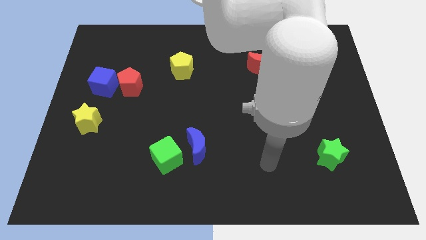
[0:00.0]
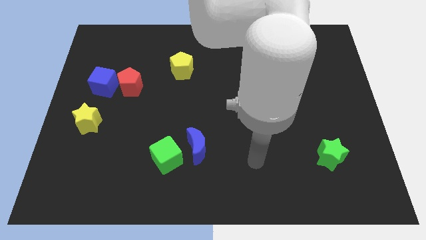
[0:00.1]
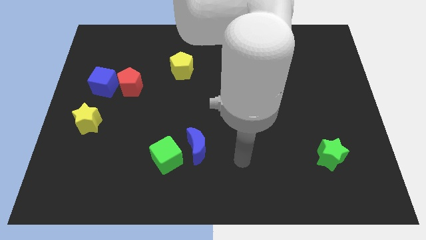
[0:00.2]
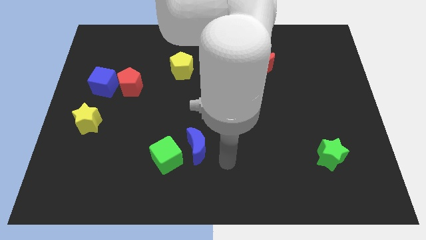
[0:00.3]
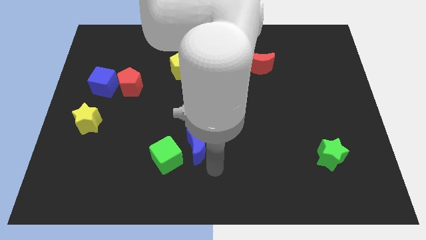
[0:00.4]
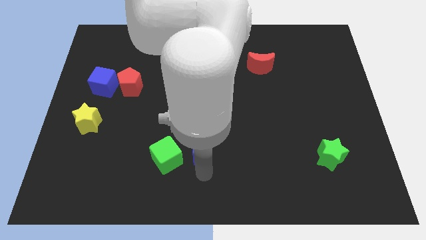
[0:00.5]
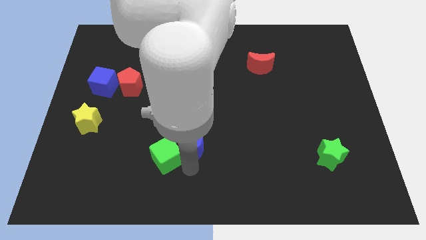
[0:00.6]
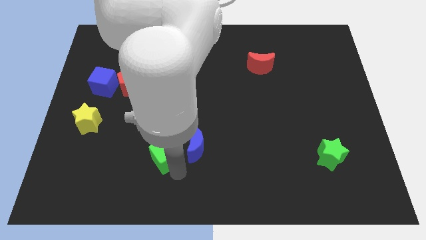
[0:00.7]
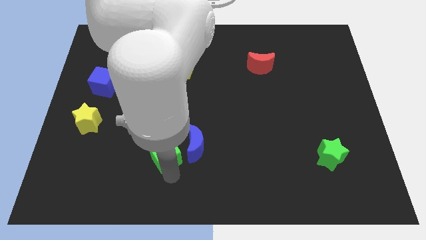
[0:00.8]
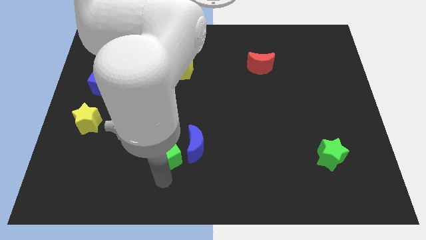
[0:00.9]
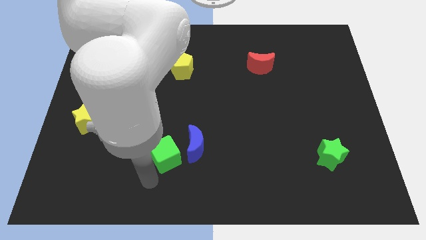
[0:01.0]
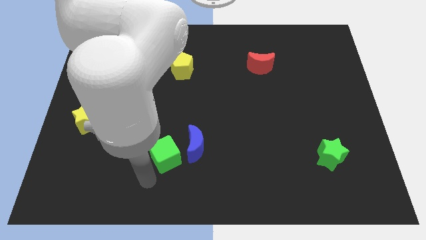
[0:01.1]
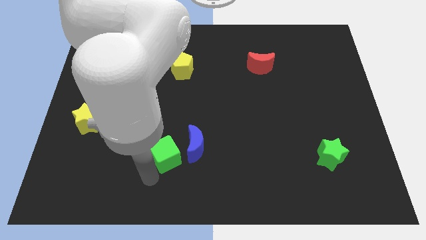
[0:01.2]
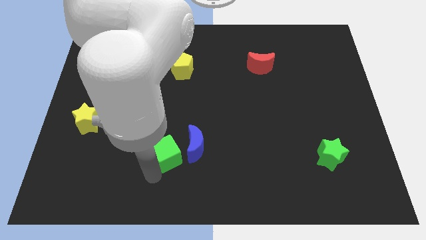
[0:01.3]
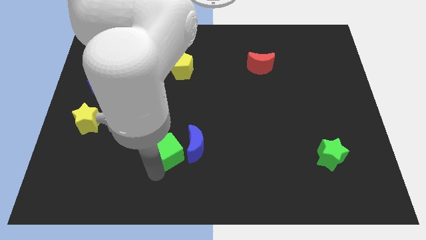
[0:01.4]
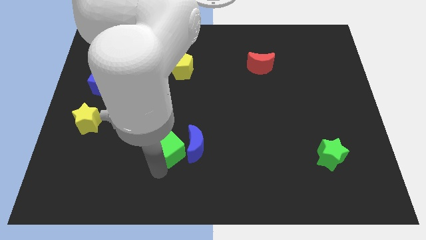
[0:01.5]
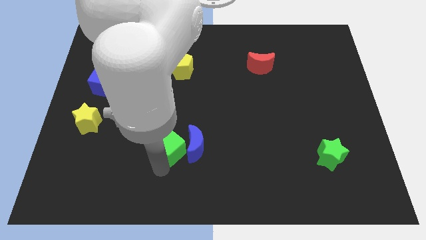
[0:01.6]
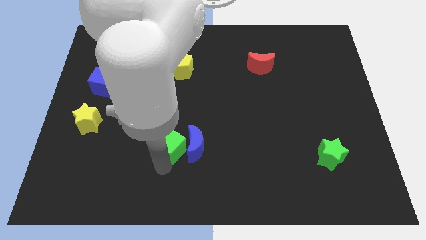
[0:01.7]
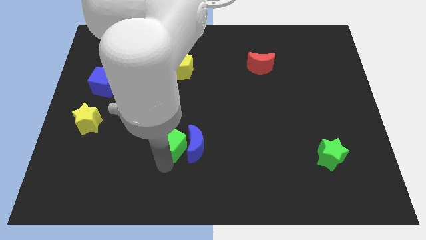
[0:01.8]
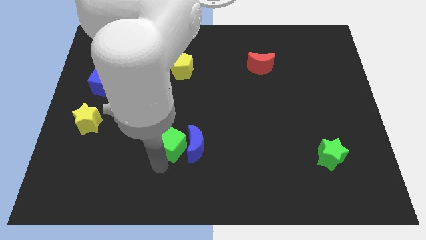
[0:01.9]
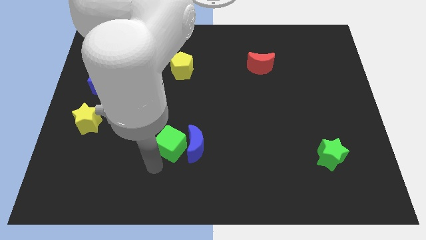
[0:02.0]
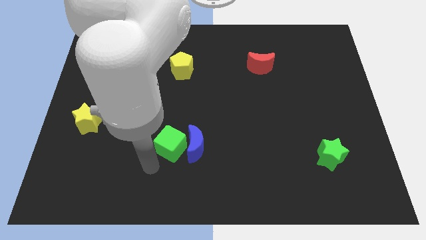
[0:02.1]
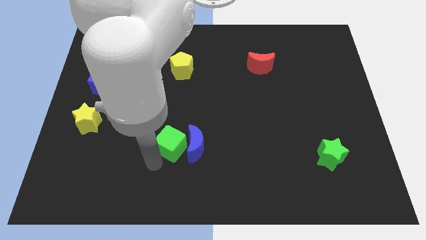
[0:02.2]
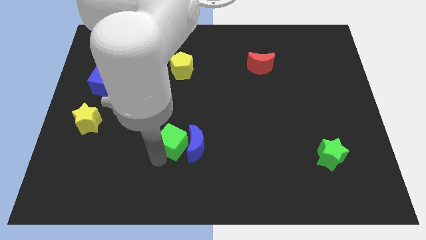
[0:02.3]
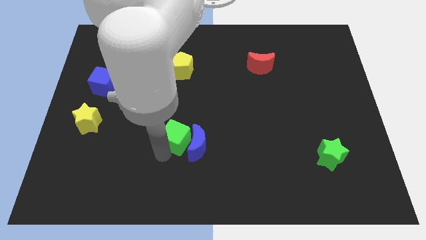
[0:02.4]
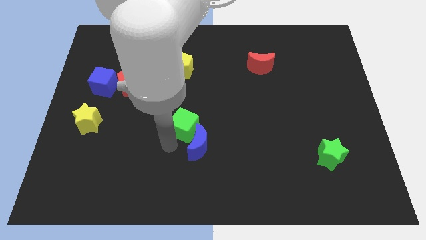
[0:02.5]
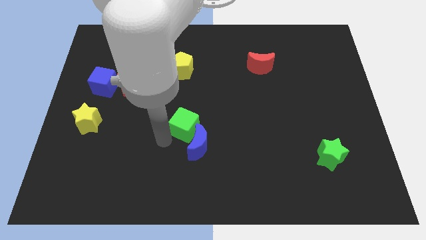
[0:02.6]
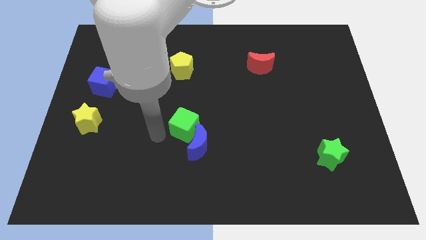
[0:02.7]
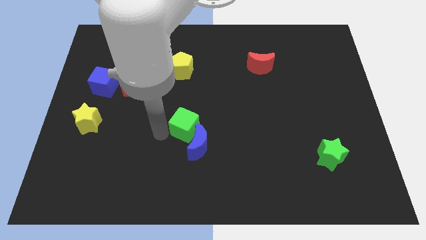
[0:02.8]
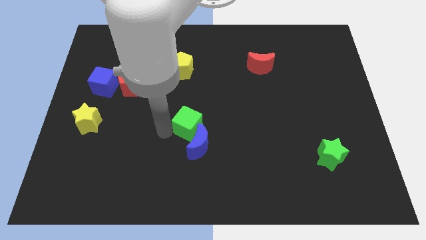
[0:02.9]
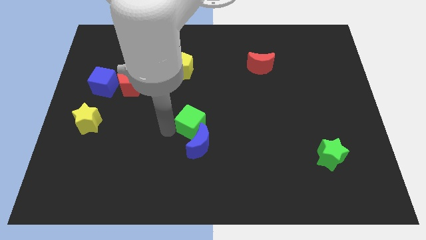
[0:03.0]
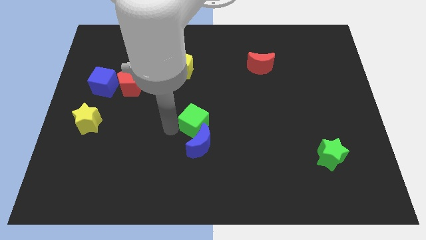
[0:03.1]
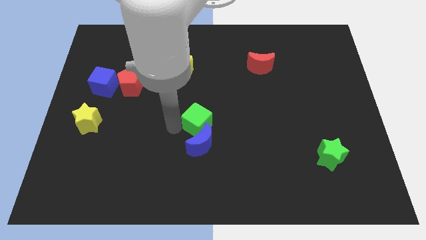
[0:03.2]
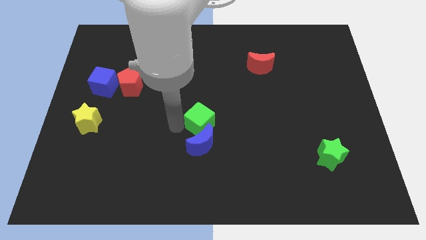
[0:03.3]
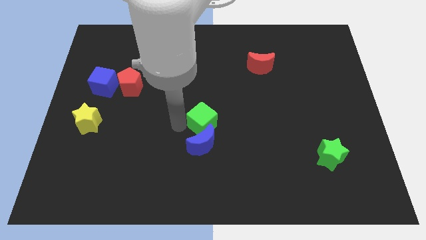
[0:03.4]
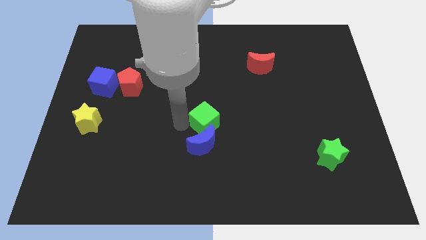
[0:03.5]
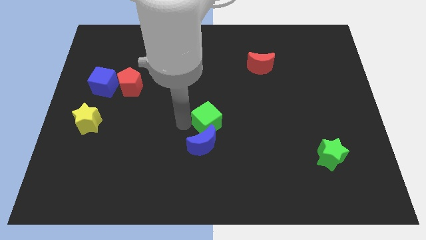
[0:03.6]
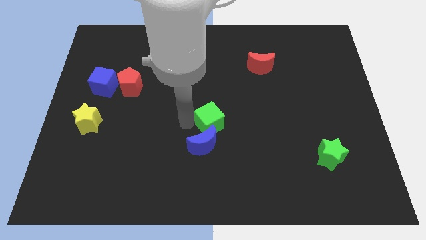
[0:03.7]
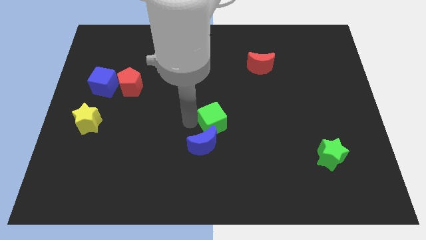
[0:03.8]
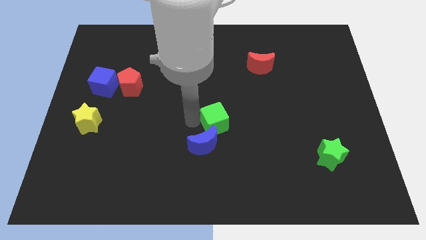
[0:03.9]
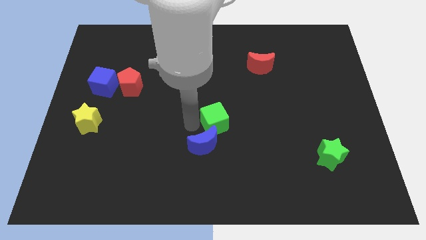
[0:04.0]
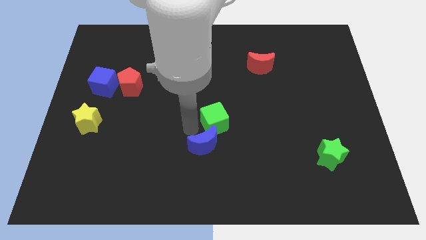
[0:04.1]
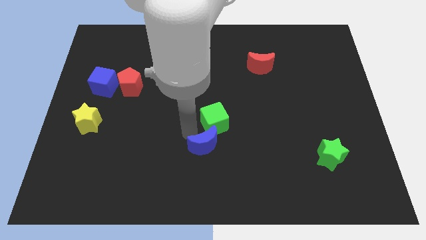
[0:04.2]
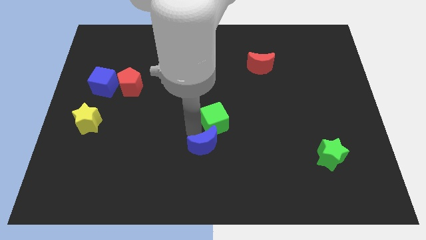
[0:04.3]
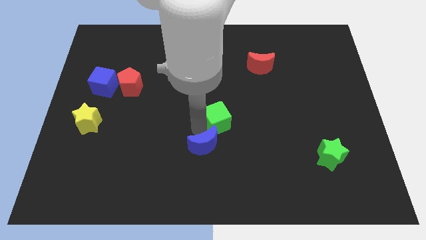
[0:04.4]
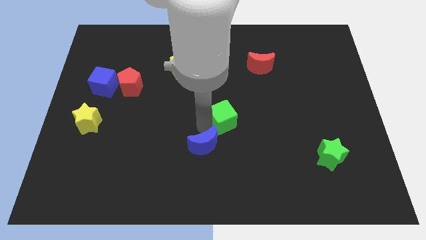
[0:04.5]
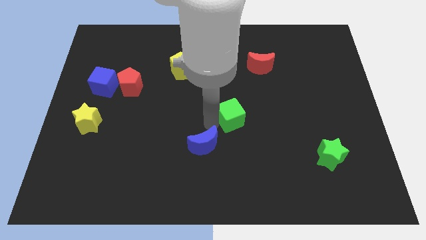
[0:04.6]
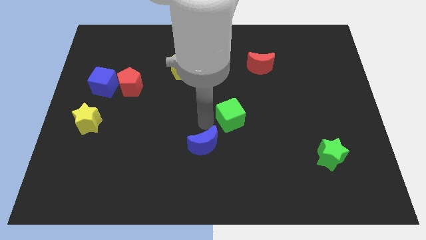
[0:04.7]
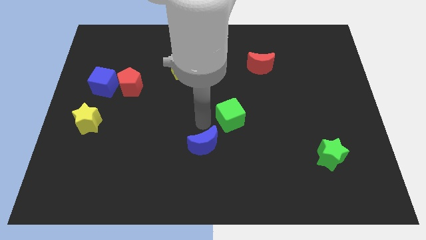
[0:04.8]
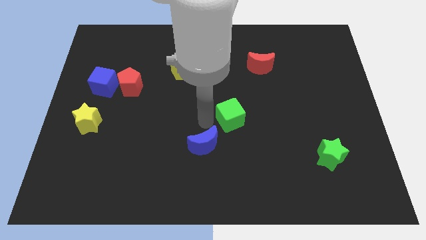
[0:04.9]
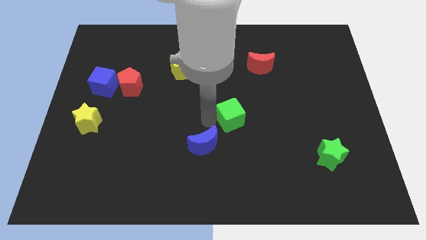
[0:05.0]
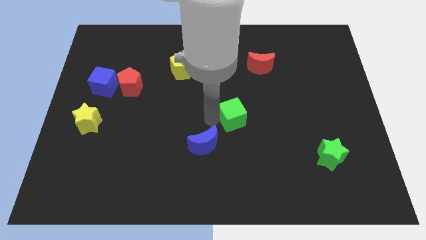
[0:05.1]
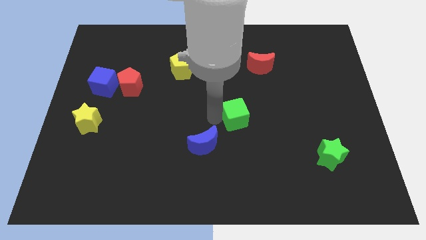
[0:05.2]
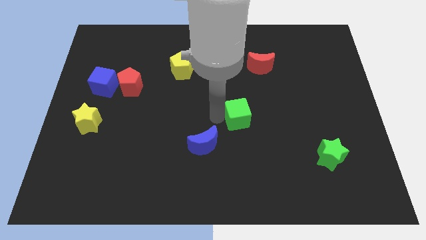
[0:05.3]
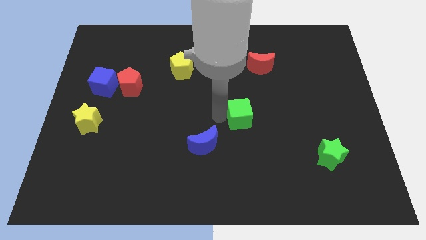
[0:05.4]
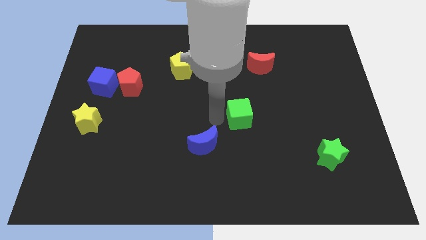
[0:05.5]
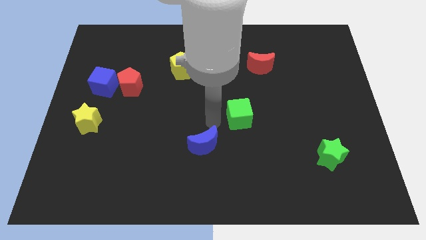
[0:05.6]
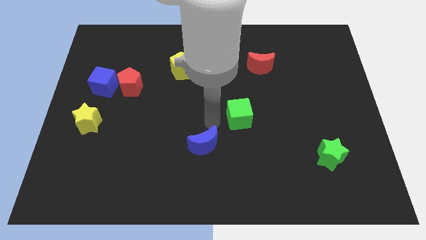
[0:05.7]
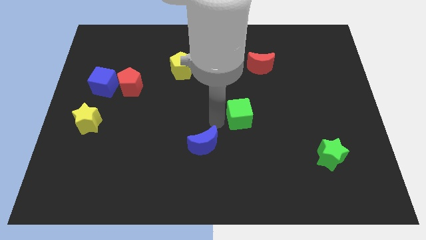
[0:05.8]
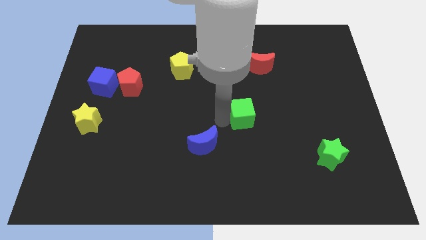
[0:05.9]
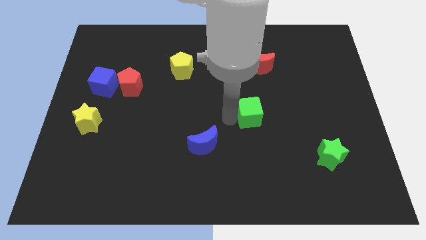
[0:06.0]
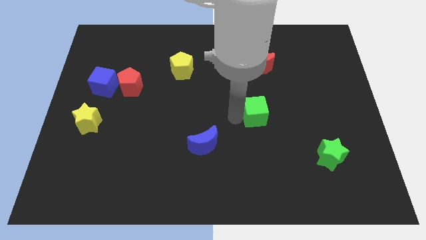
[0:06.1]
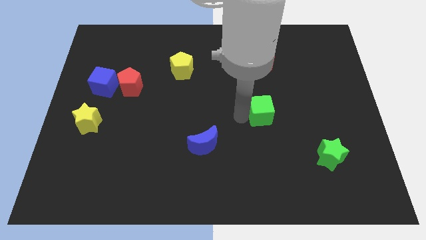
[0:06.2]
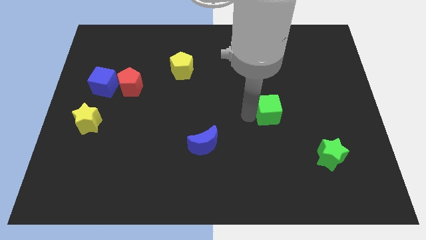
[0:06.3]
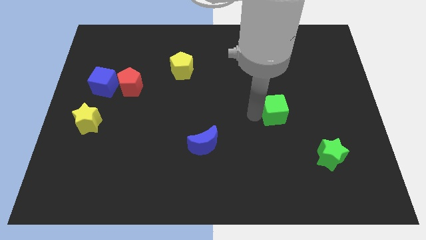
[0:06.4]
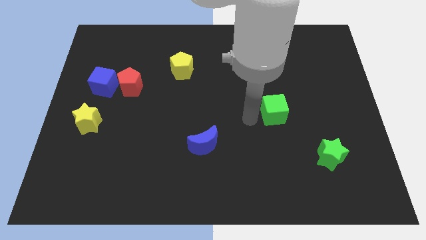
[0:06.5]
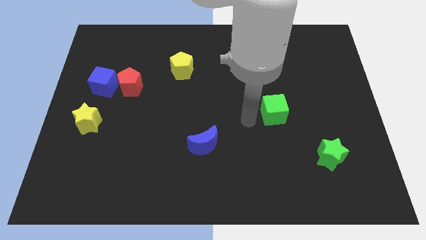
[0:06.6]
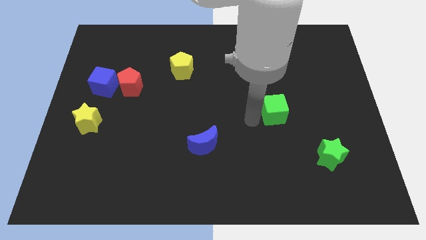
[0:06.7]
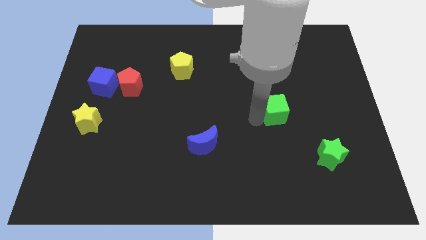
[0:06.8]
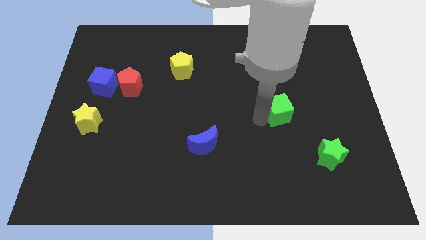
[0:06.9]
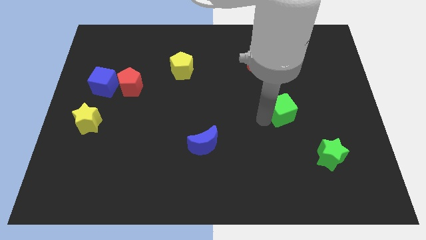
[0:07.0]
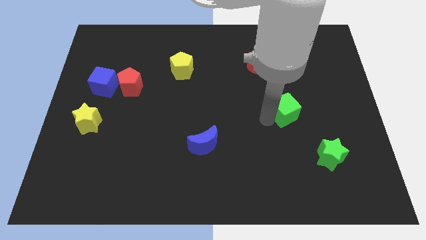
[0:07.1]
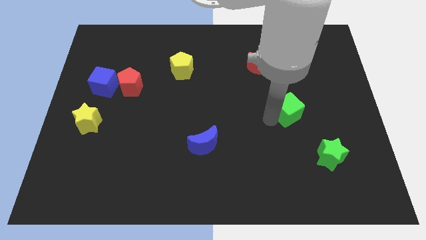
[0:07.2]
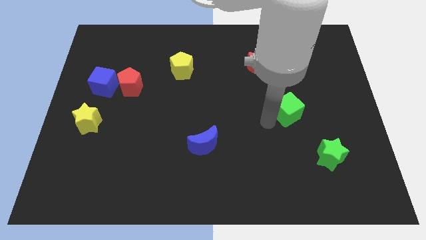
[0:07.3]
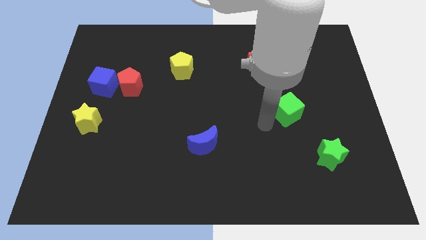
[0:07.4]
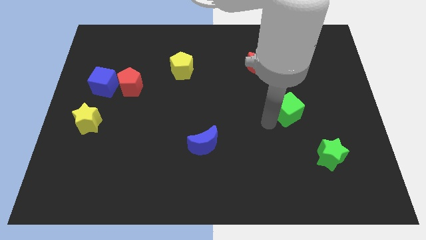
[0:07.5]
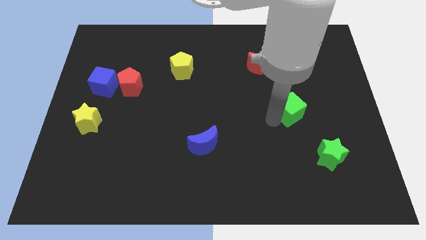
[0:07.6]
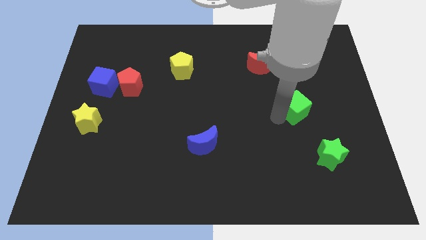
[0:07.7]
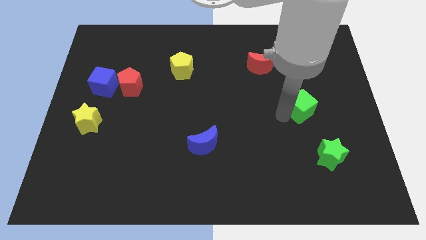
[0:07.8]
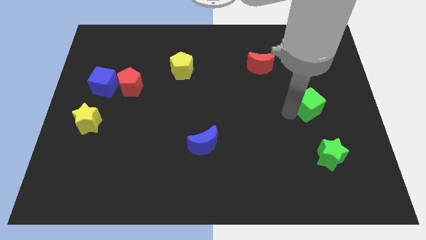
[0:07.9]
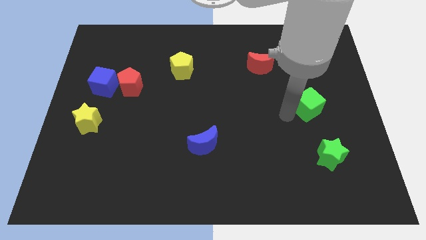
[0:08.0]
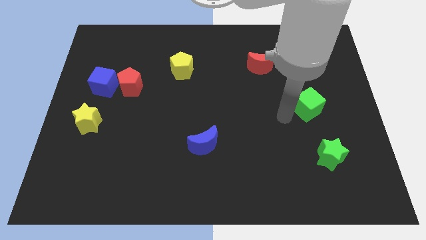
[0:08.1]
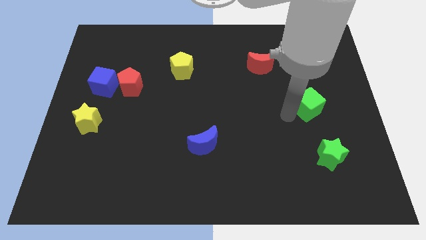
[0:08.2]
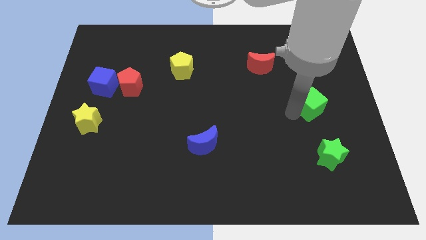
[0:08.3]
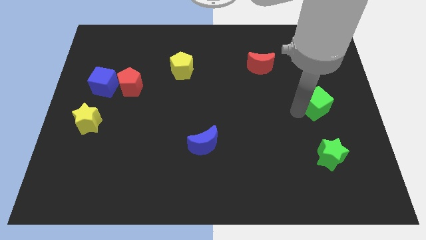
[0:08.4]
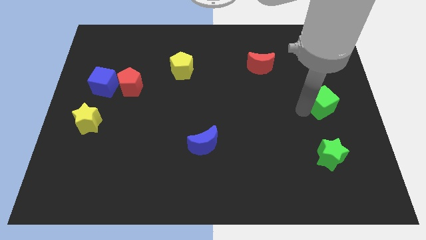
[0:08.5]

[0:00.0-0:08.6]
put the green cube to the right side of the board
